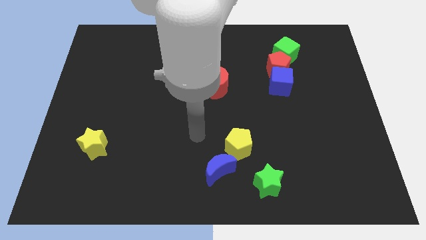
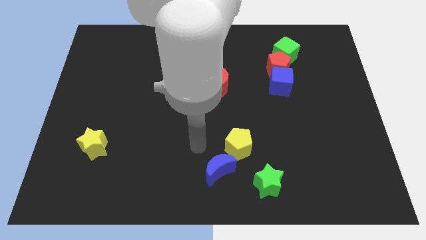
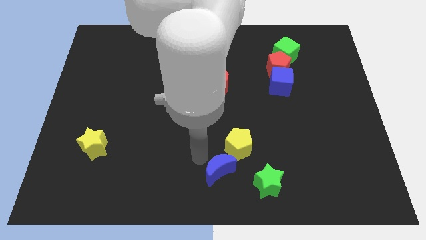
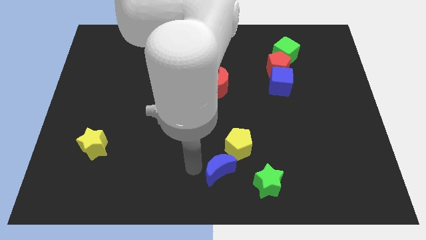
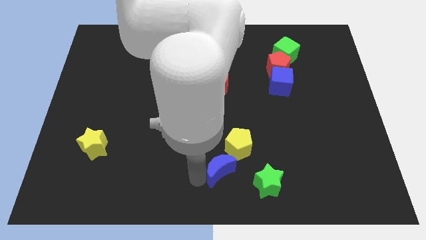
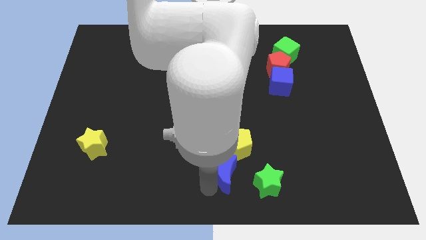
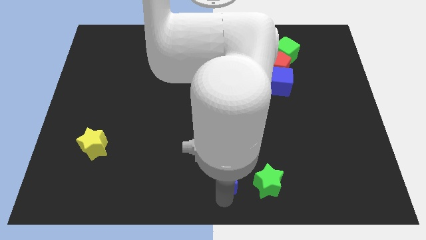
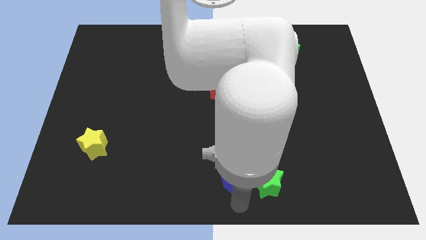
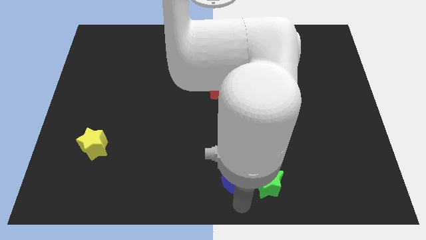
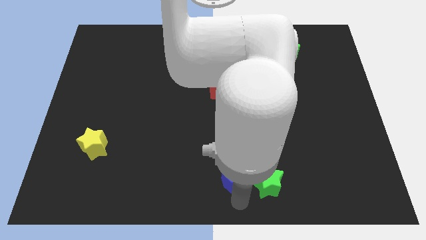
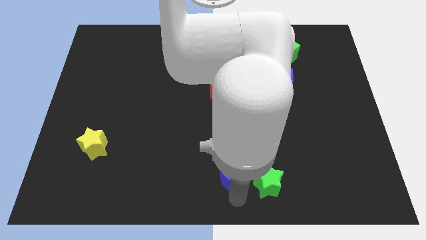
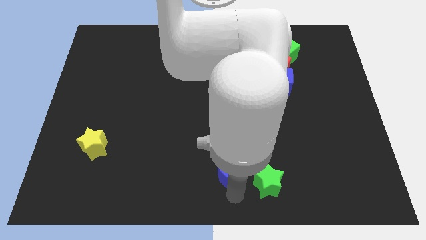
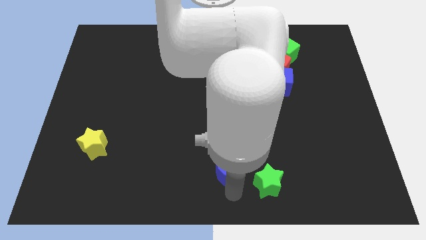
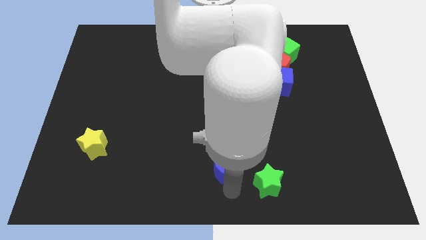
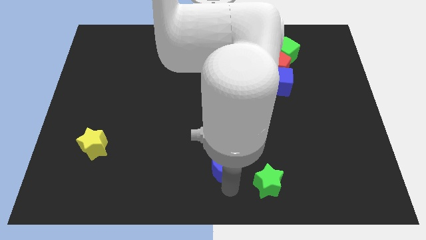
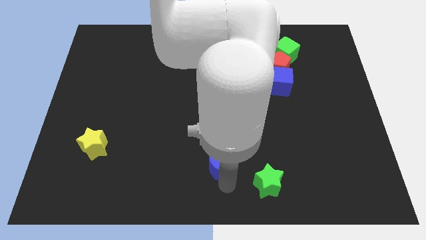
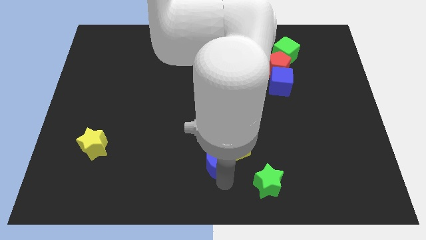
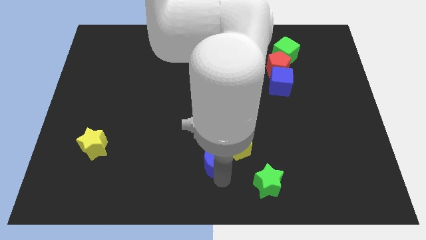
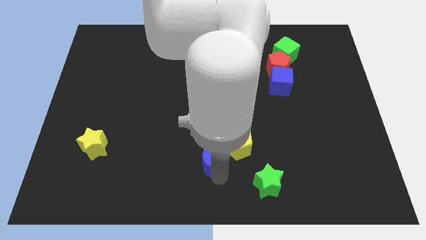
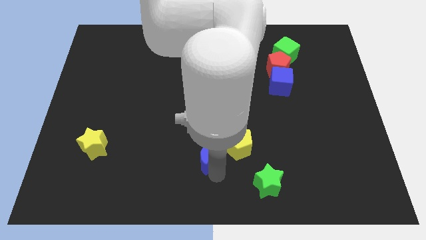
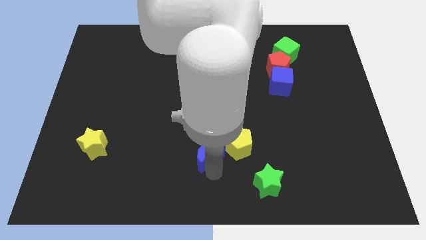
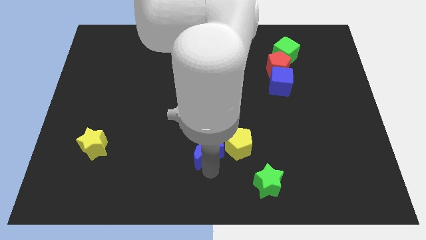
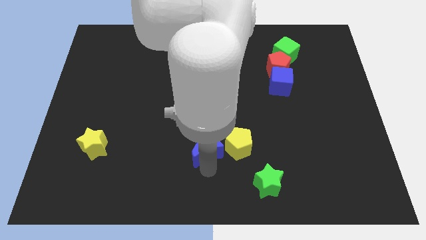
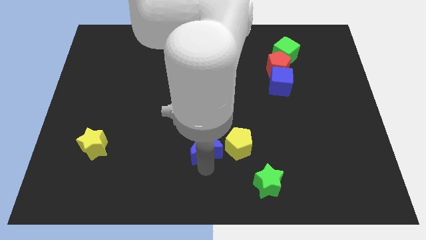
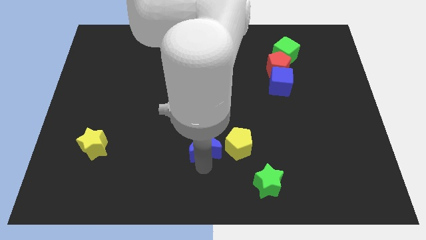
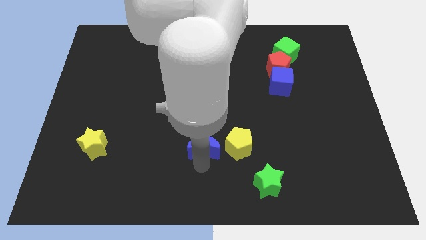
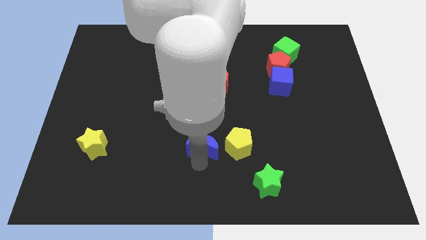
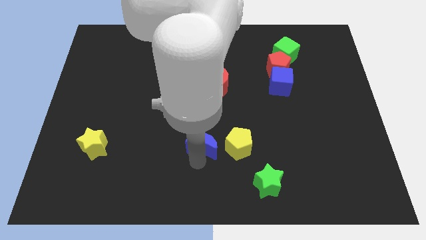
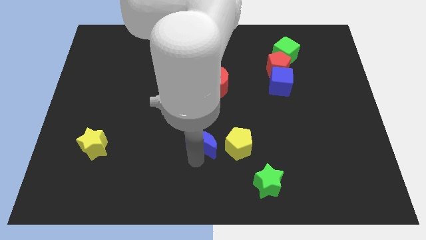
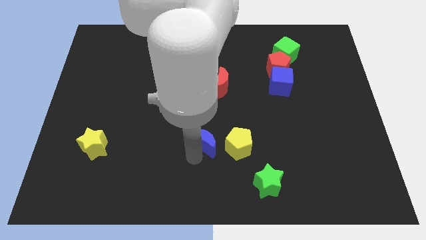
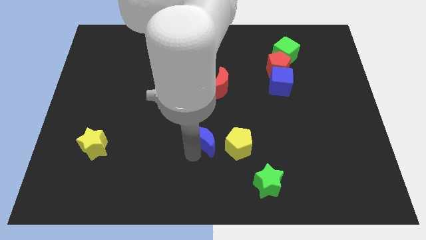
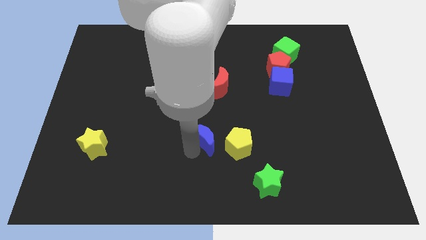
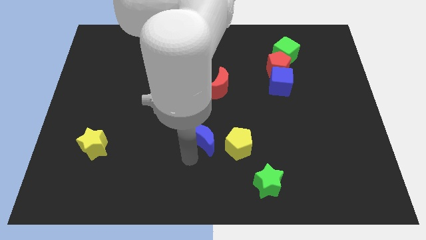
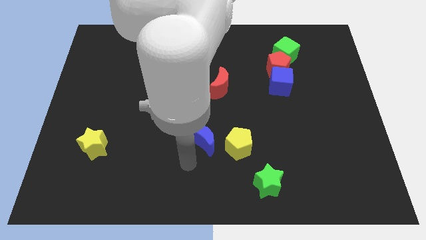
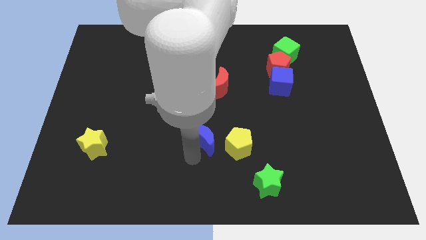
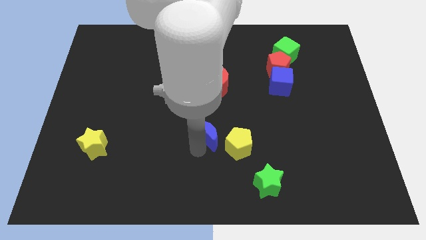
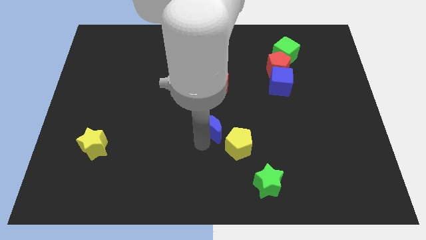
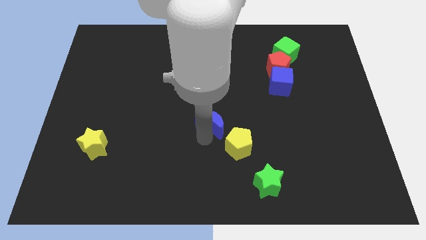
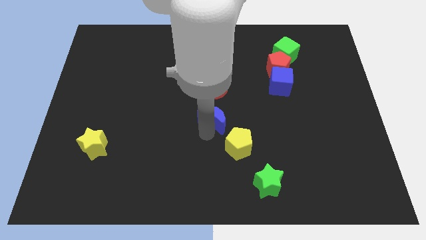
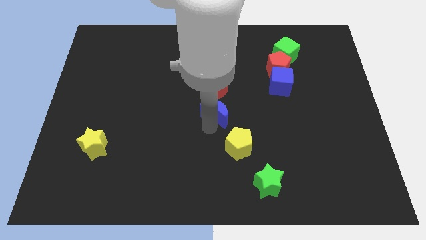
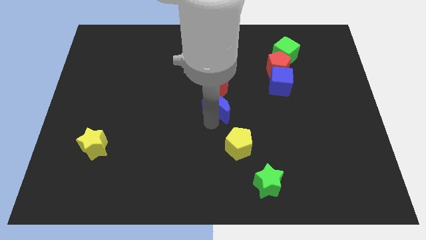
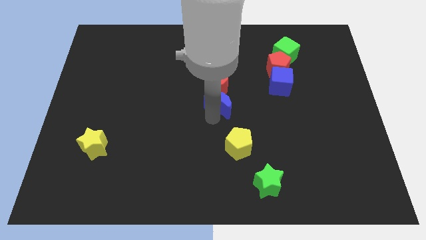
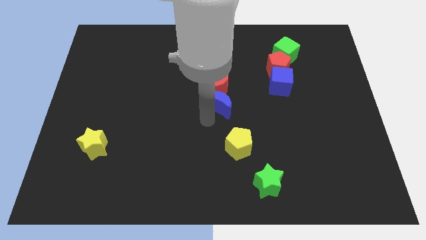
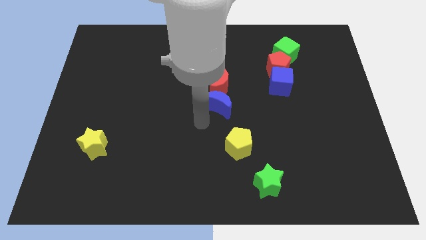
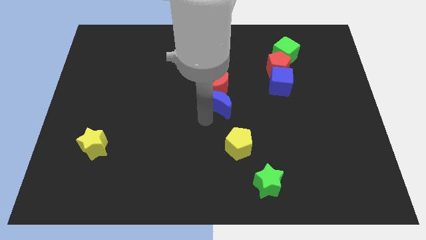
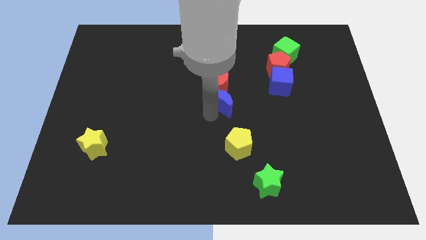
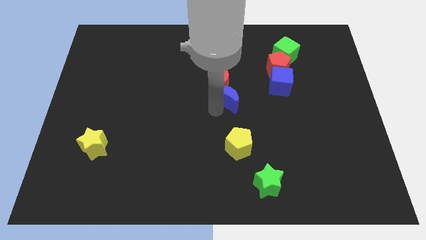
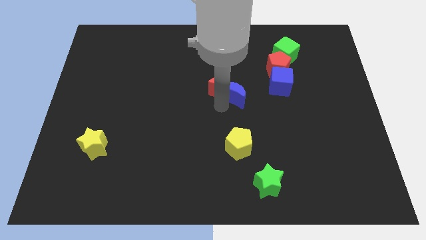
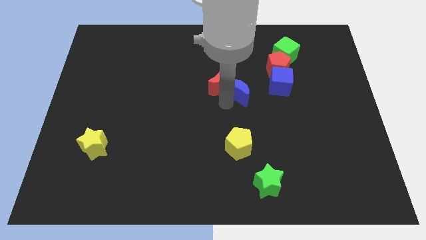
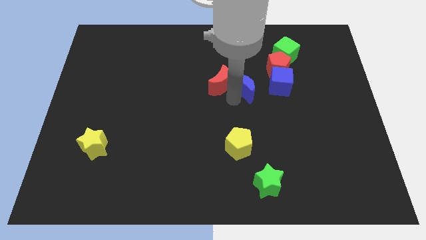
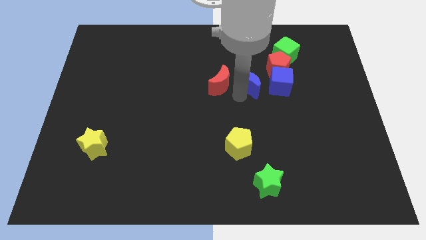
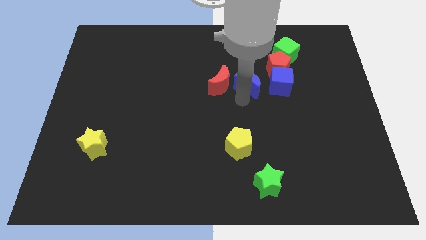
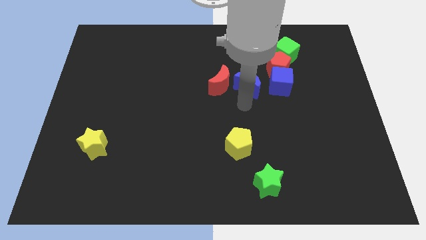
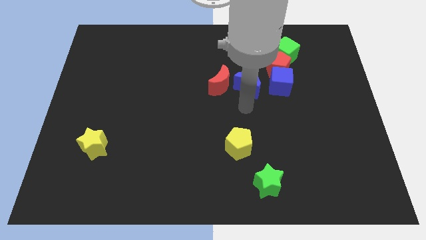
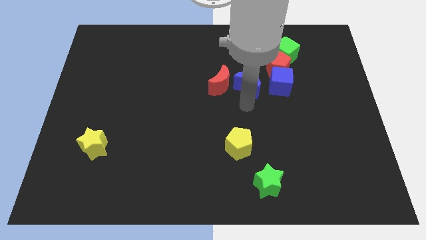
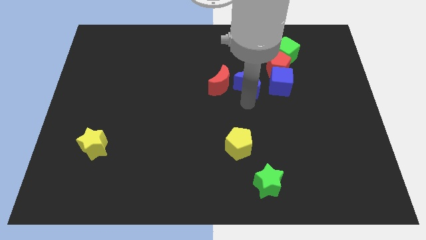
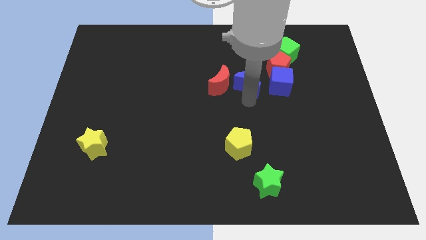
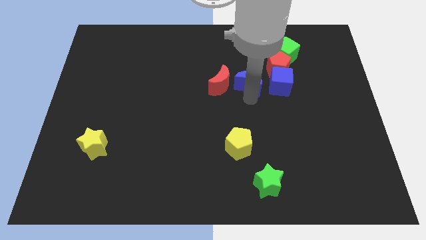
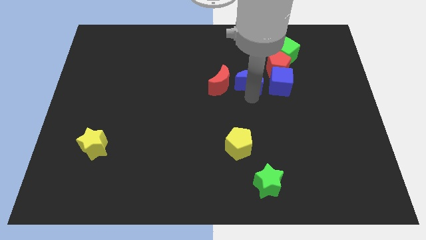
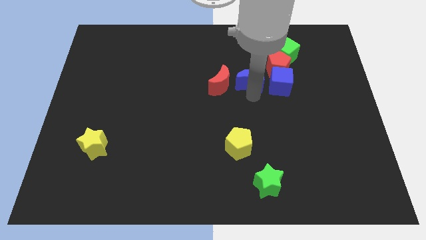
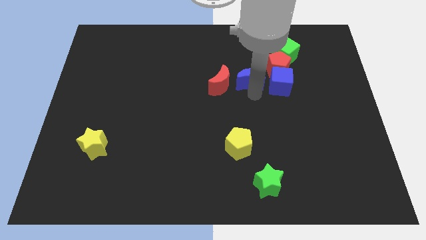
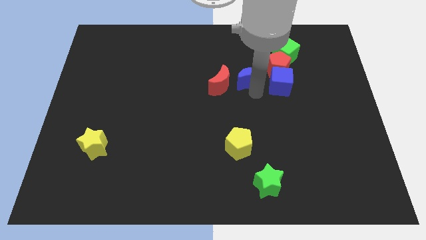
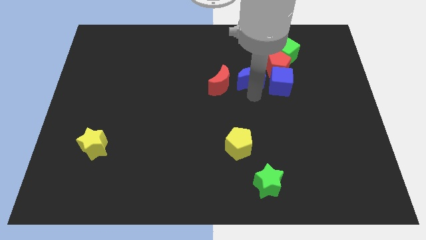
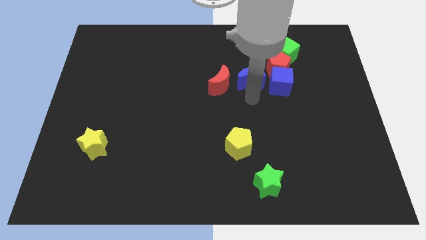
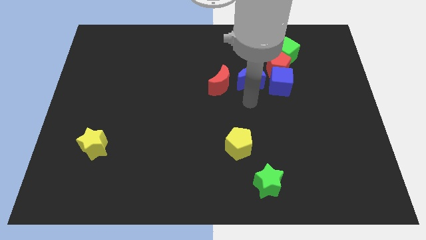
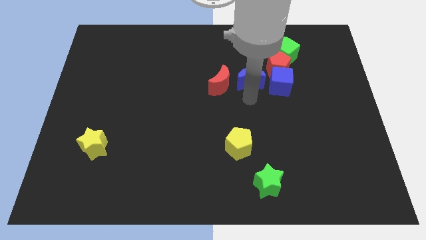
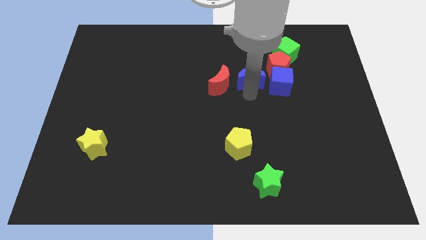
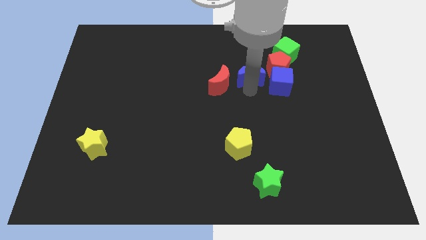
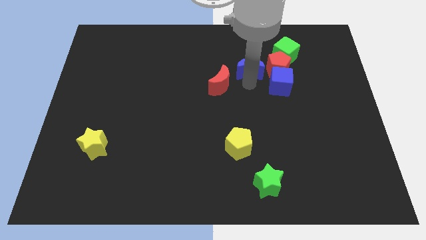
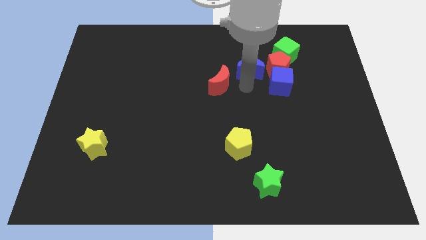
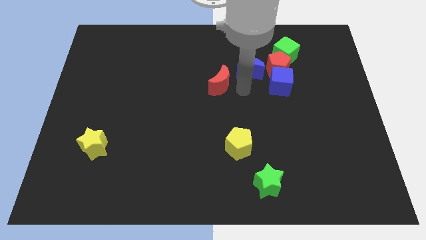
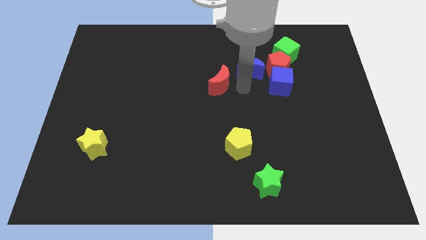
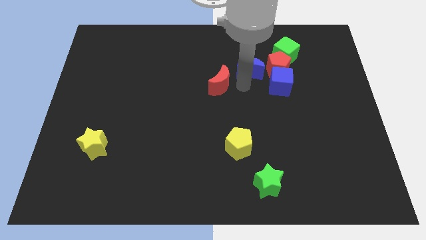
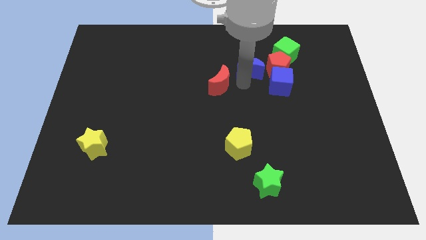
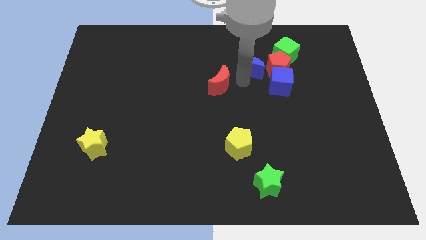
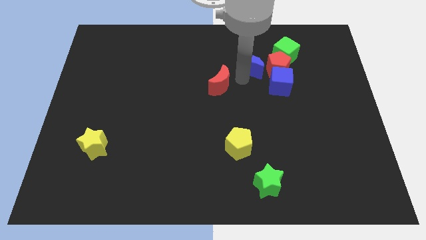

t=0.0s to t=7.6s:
slide the blue moon to the top left side of the red pentagon

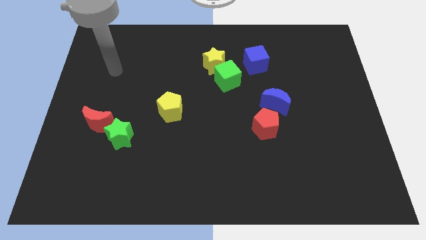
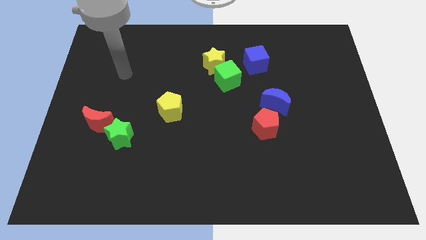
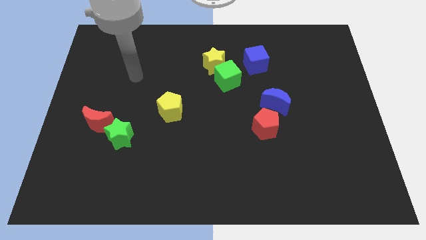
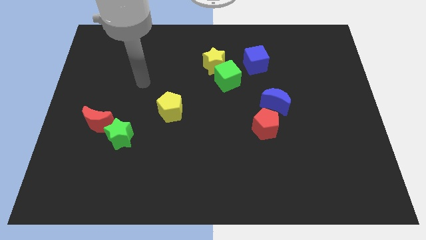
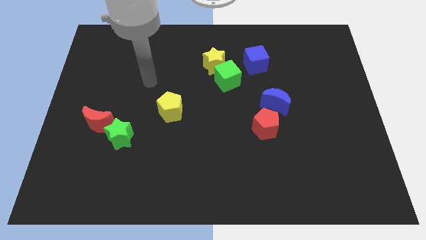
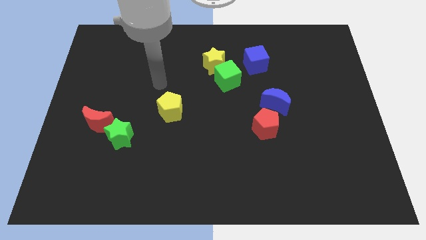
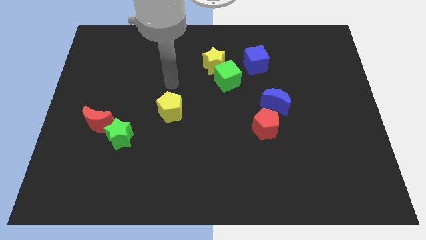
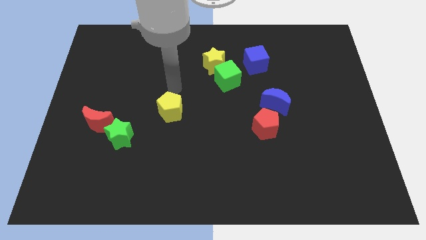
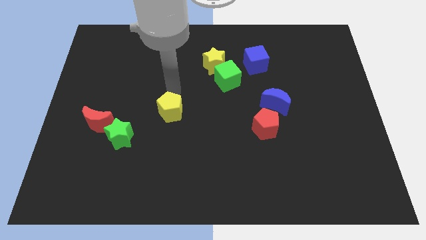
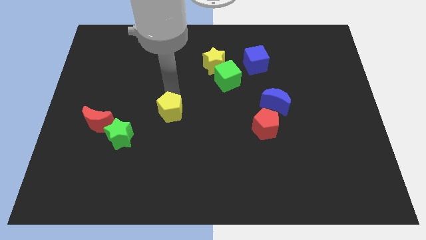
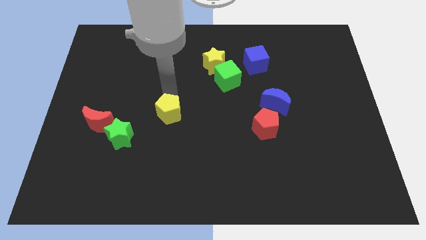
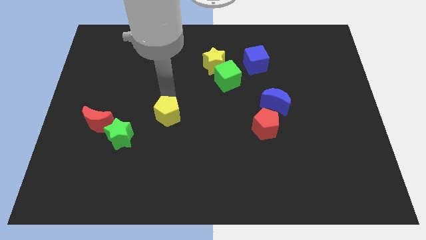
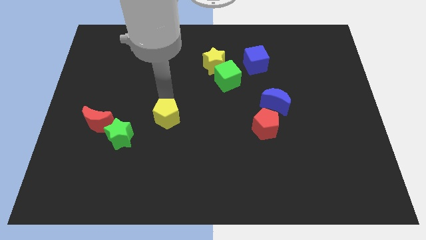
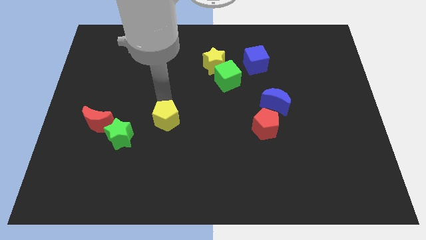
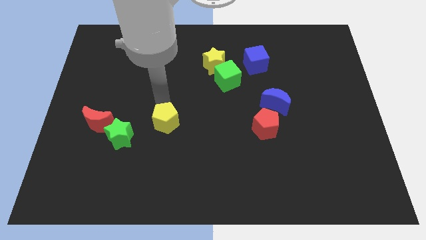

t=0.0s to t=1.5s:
slide the yellow pentagon just right of the green star
